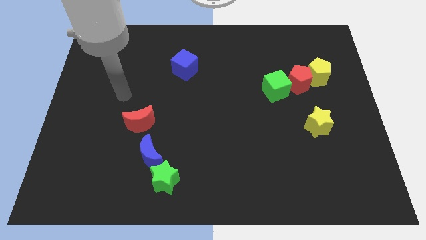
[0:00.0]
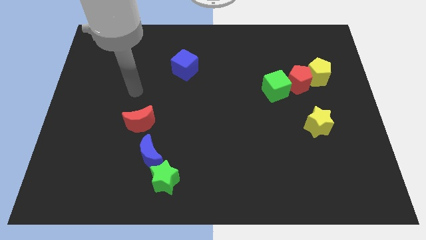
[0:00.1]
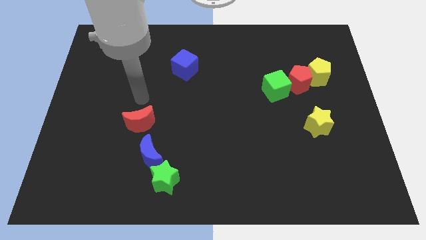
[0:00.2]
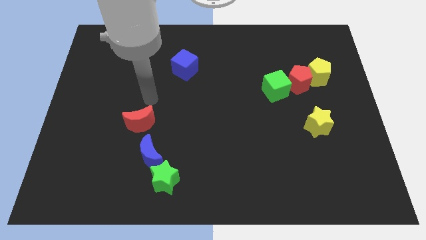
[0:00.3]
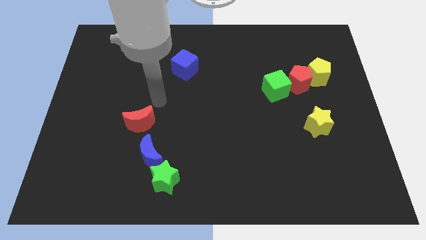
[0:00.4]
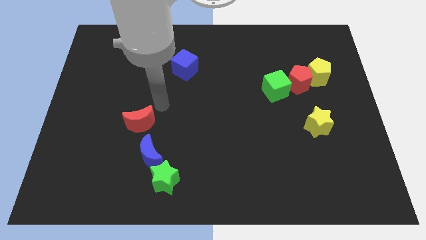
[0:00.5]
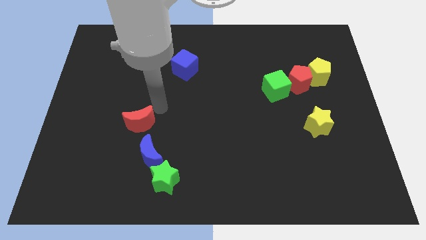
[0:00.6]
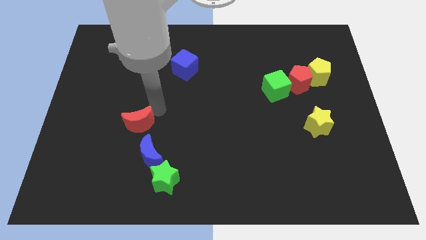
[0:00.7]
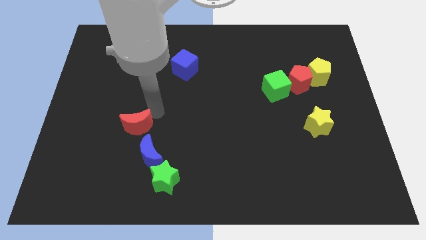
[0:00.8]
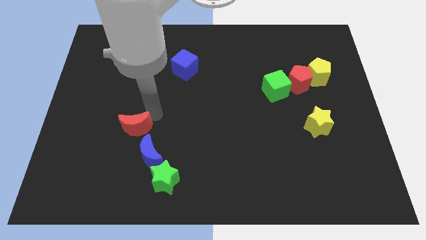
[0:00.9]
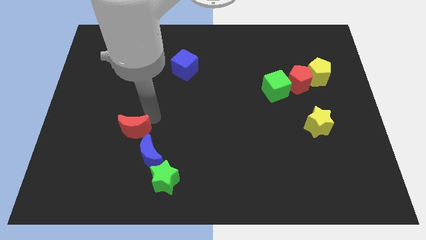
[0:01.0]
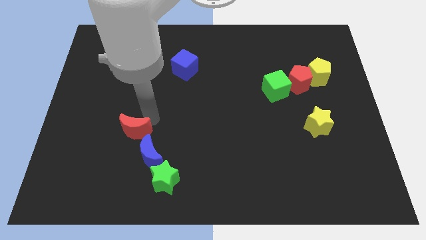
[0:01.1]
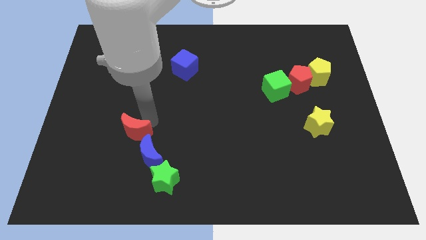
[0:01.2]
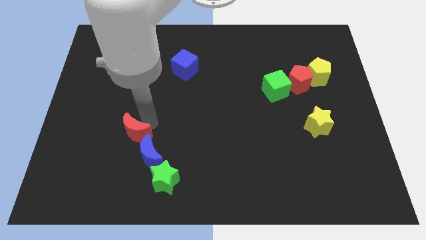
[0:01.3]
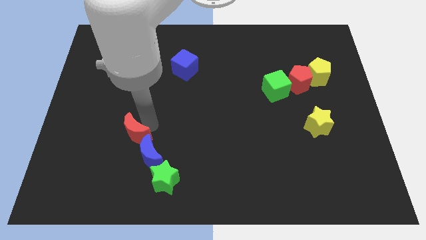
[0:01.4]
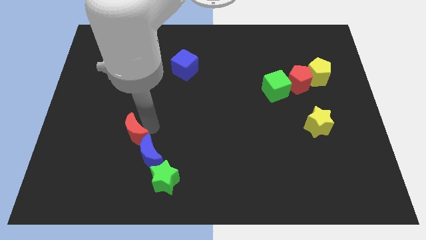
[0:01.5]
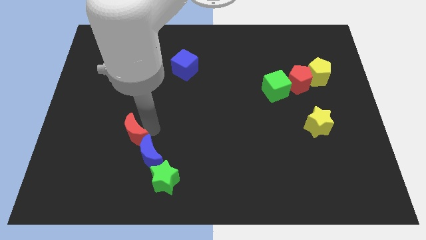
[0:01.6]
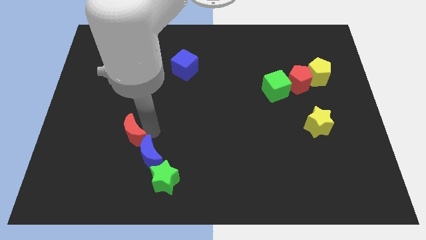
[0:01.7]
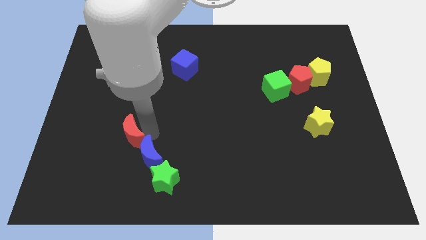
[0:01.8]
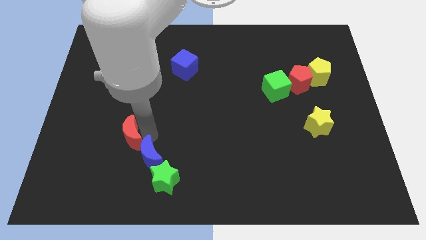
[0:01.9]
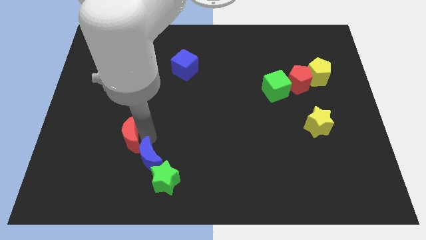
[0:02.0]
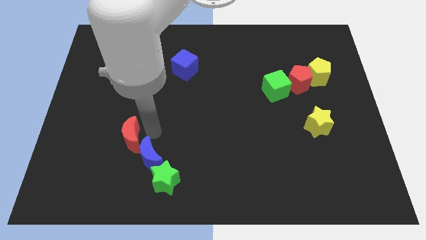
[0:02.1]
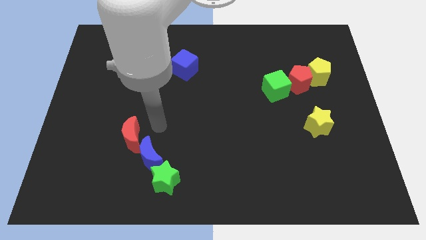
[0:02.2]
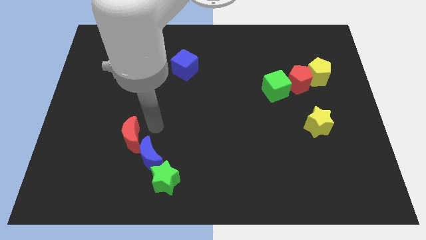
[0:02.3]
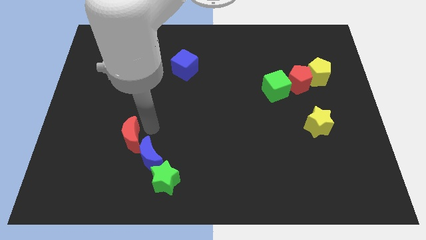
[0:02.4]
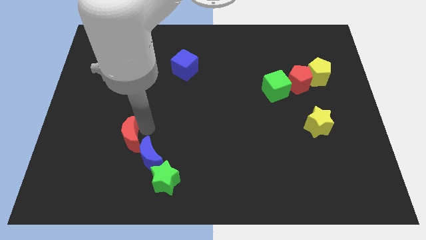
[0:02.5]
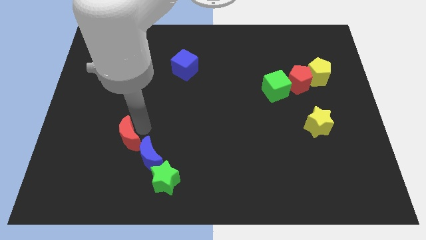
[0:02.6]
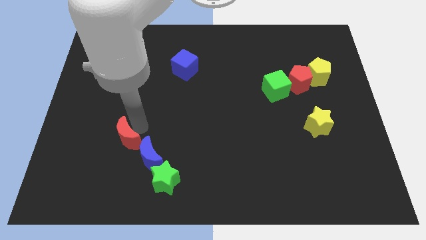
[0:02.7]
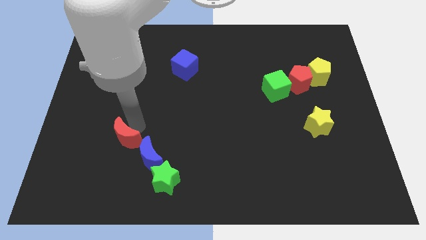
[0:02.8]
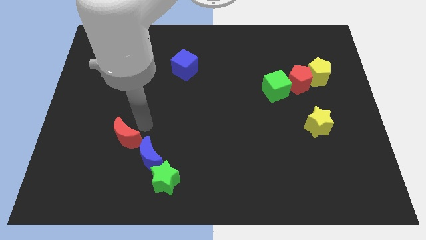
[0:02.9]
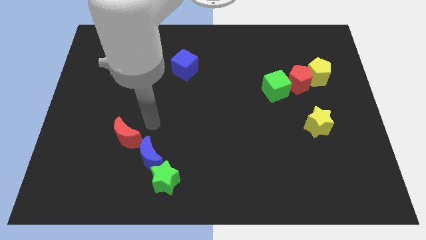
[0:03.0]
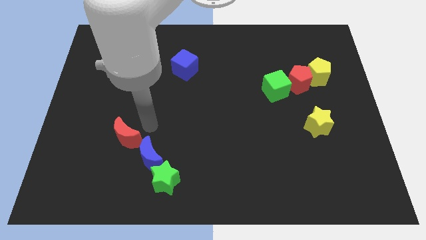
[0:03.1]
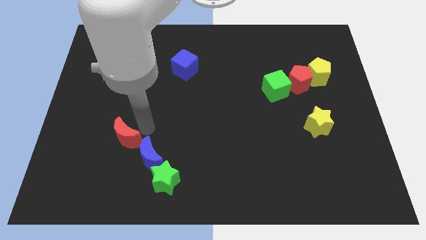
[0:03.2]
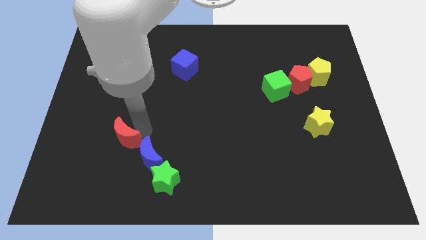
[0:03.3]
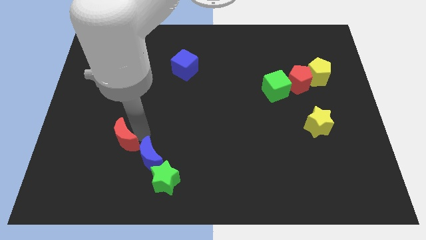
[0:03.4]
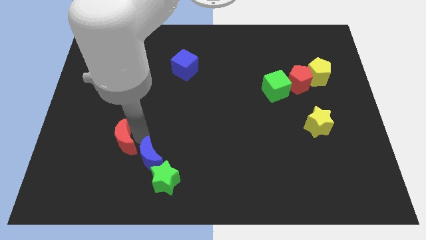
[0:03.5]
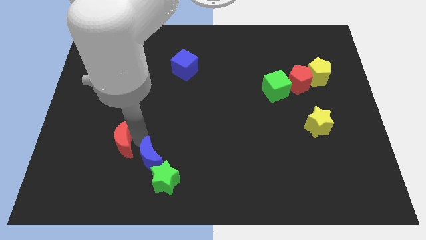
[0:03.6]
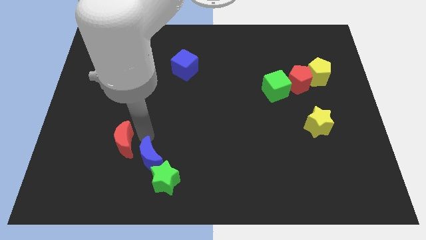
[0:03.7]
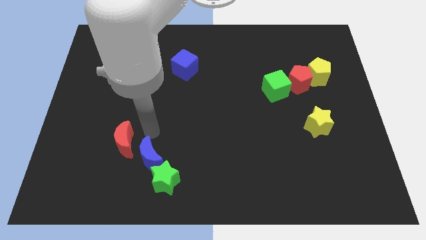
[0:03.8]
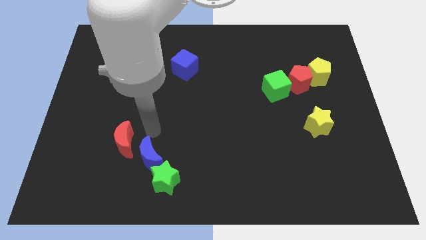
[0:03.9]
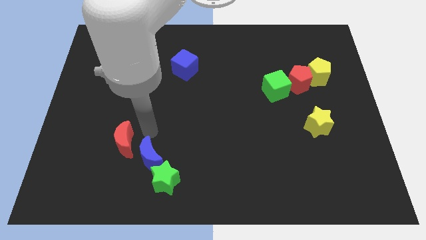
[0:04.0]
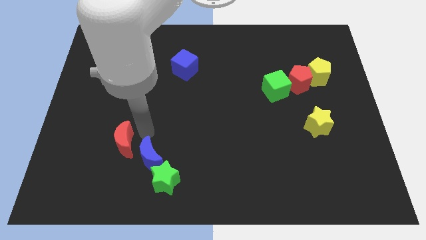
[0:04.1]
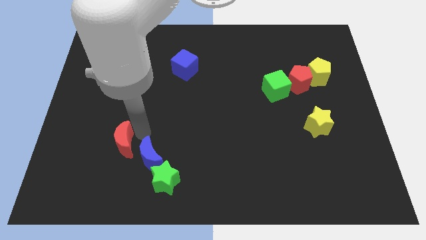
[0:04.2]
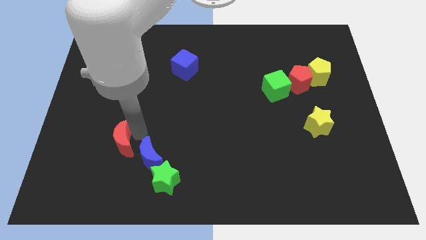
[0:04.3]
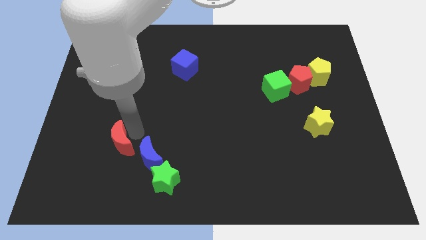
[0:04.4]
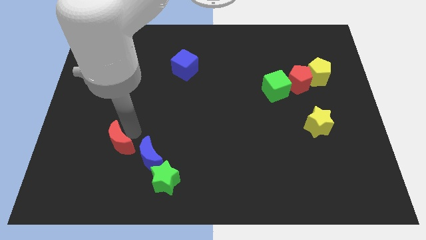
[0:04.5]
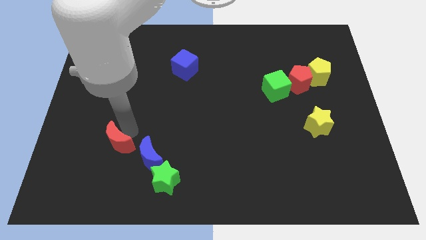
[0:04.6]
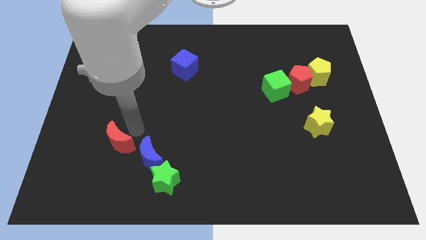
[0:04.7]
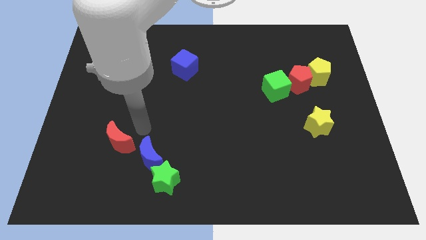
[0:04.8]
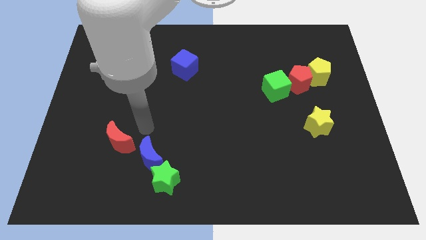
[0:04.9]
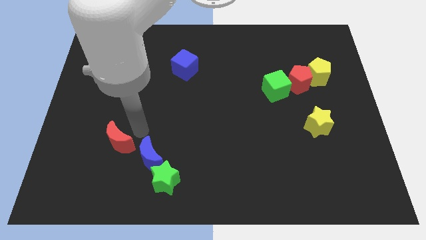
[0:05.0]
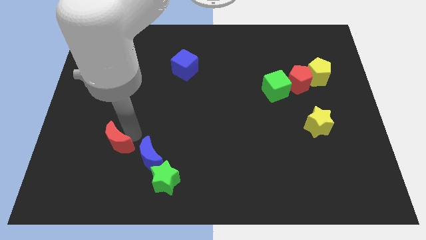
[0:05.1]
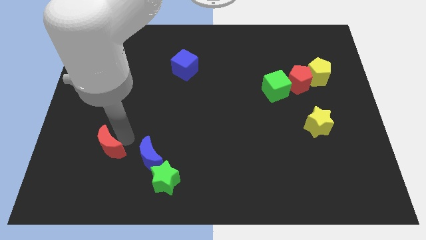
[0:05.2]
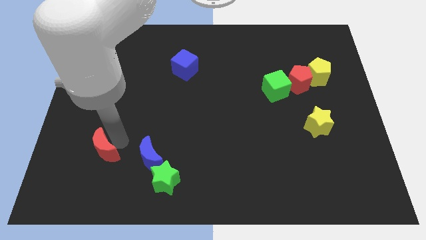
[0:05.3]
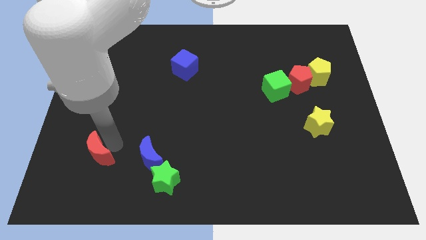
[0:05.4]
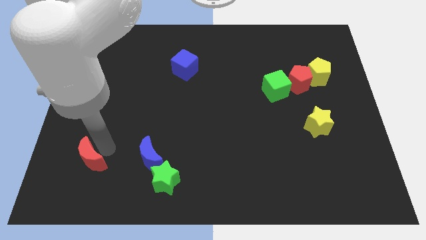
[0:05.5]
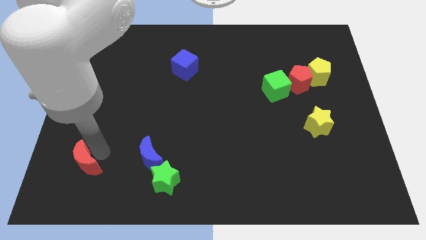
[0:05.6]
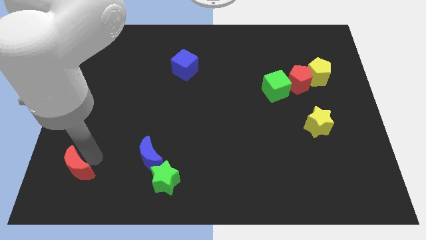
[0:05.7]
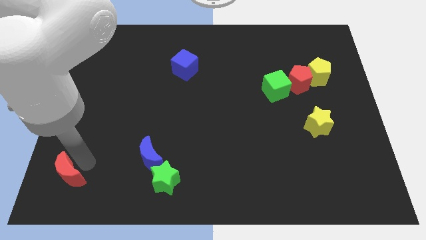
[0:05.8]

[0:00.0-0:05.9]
move the red moon to the lower left corner

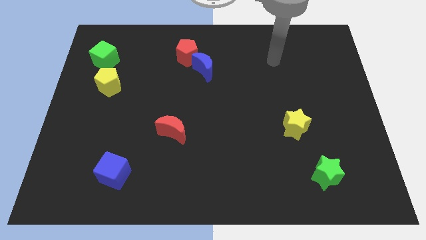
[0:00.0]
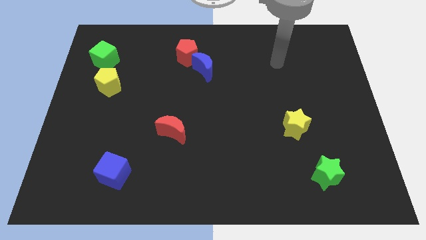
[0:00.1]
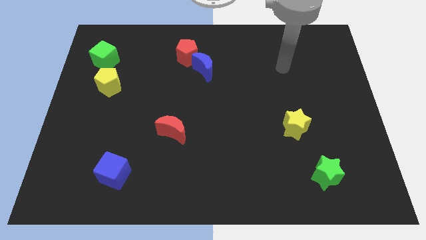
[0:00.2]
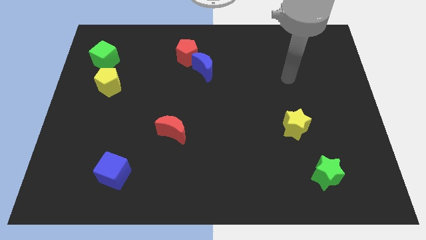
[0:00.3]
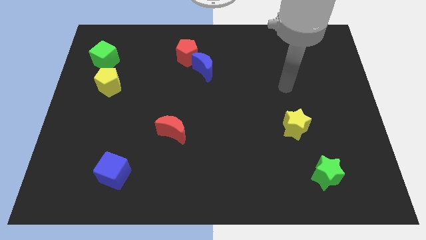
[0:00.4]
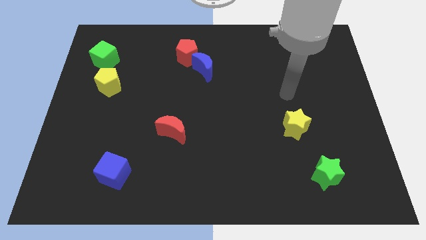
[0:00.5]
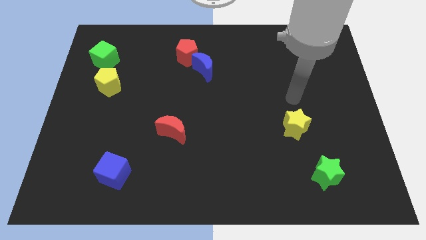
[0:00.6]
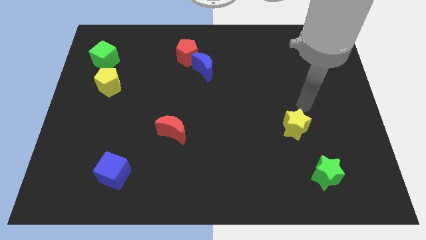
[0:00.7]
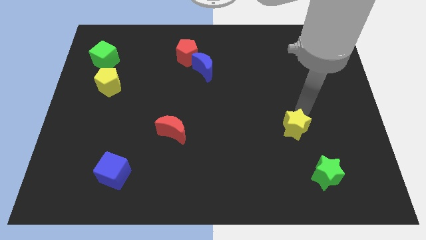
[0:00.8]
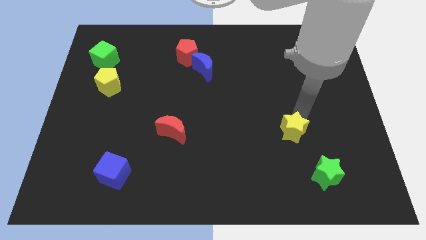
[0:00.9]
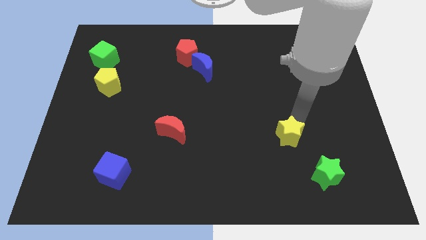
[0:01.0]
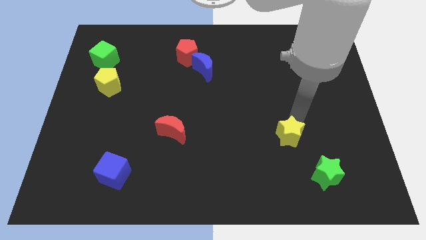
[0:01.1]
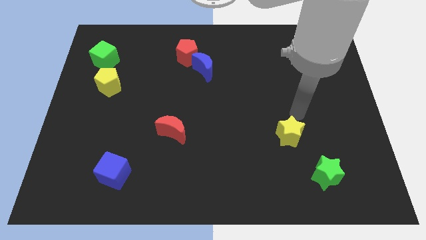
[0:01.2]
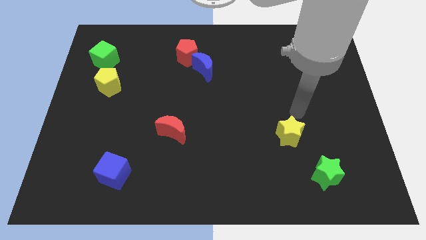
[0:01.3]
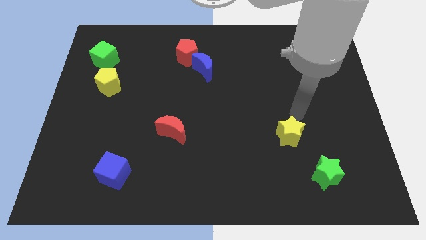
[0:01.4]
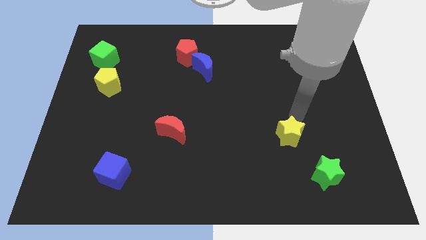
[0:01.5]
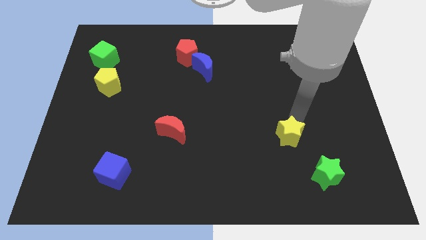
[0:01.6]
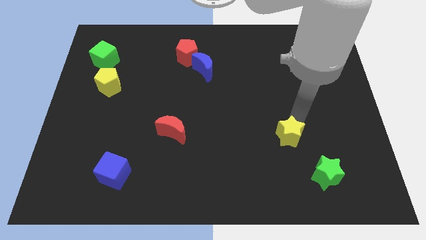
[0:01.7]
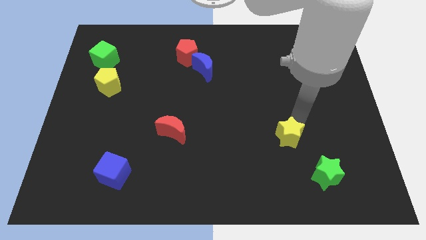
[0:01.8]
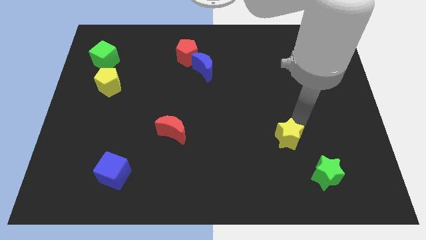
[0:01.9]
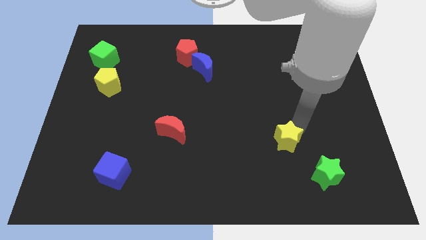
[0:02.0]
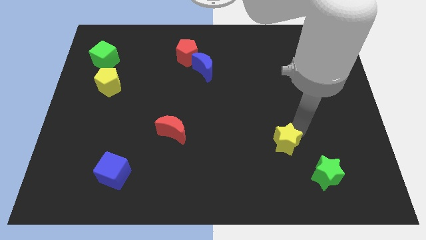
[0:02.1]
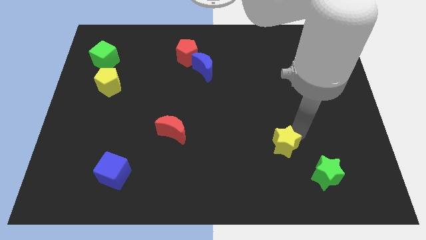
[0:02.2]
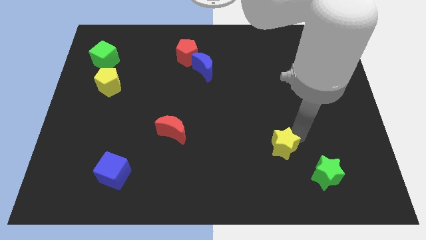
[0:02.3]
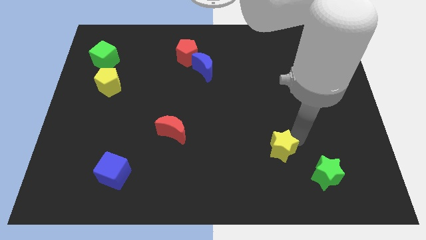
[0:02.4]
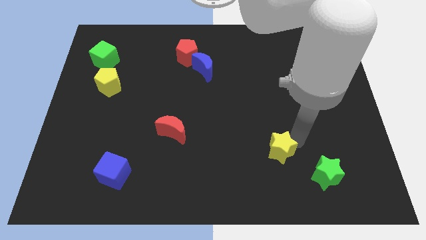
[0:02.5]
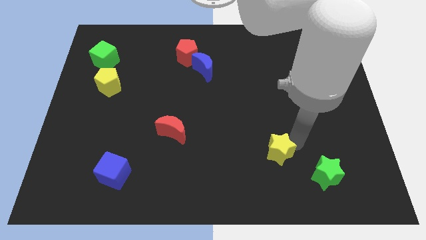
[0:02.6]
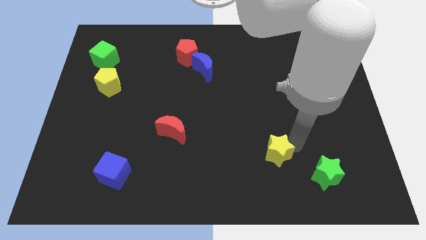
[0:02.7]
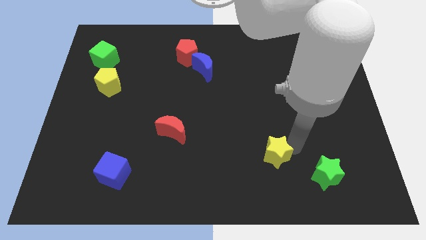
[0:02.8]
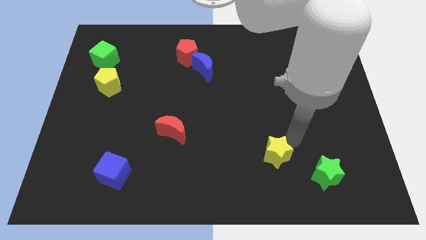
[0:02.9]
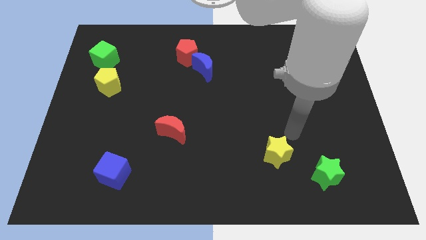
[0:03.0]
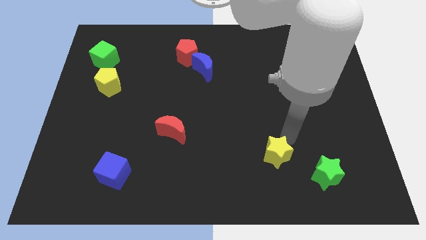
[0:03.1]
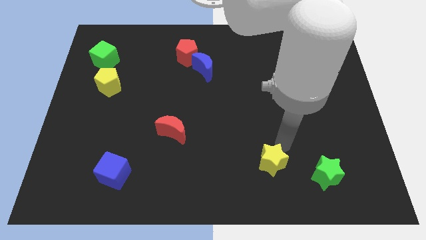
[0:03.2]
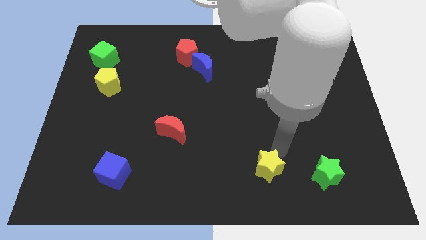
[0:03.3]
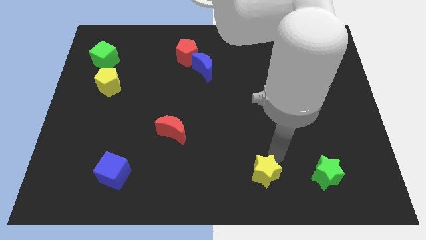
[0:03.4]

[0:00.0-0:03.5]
put the yellow star to the bottom side
